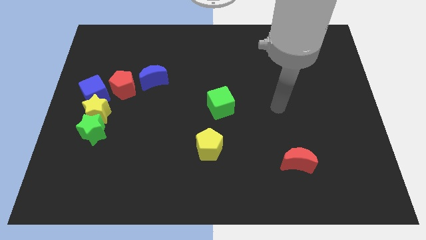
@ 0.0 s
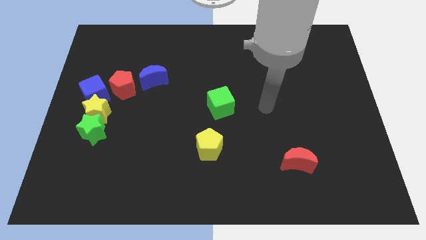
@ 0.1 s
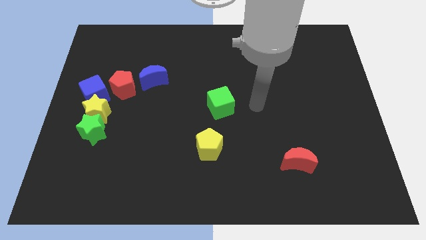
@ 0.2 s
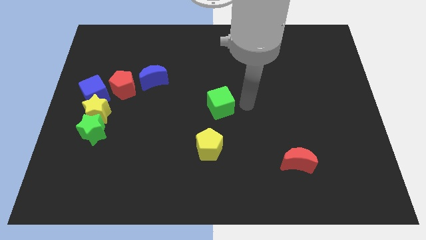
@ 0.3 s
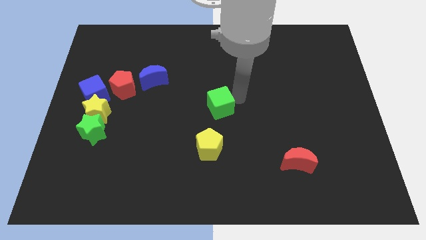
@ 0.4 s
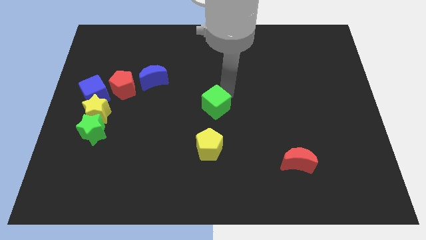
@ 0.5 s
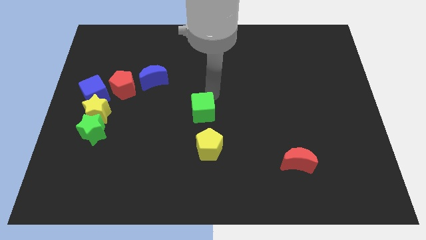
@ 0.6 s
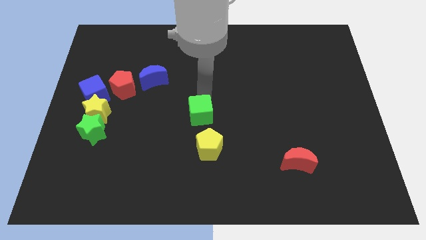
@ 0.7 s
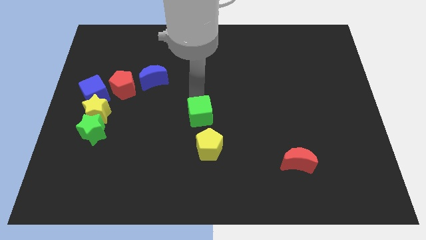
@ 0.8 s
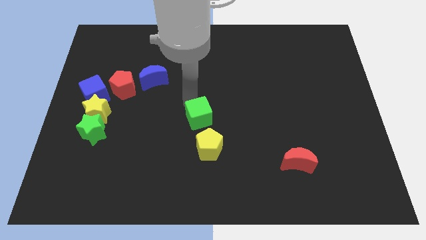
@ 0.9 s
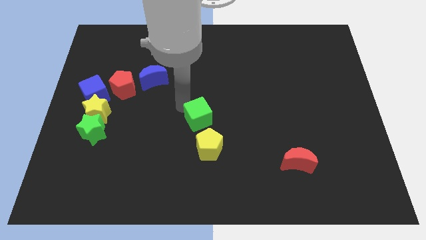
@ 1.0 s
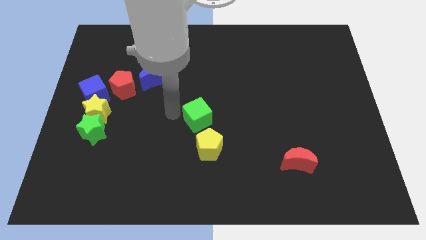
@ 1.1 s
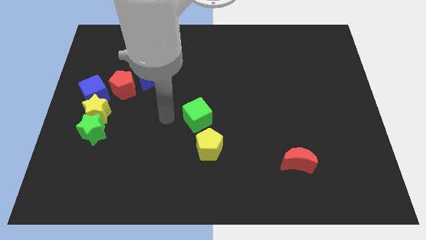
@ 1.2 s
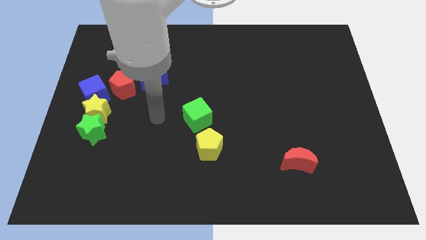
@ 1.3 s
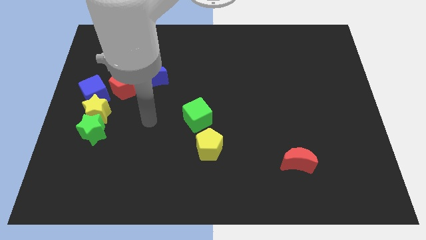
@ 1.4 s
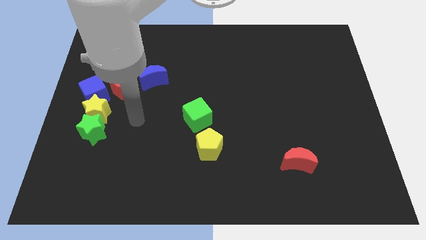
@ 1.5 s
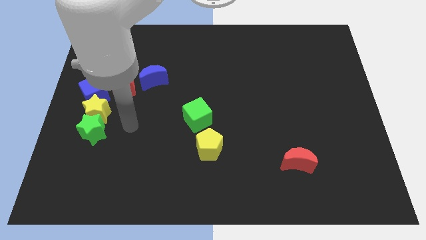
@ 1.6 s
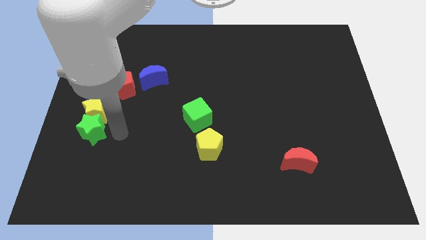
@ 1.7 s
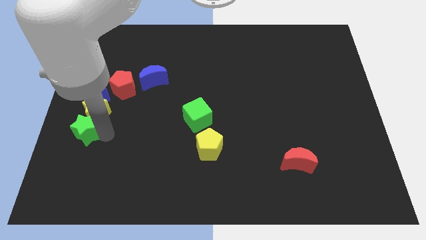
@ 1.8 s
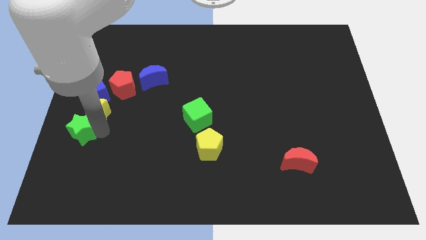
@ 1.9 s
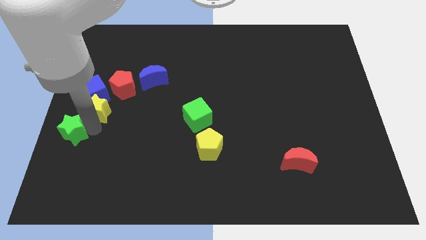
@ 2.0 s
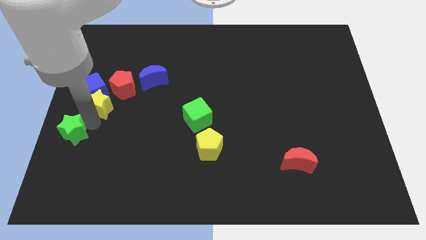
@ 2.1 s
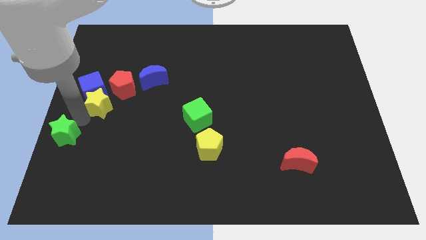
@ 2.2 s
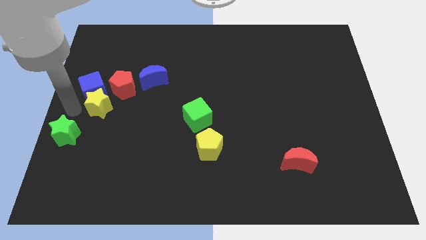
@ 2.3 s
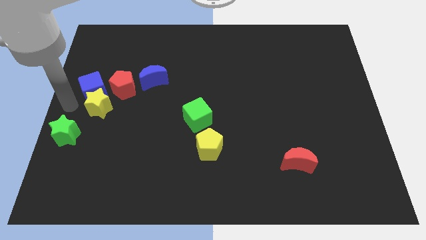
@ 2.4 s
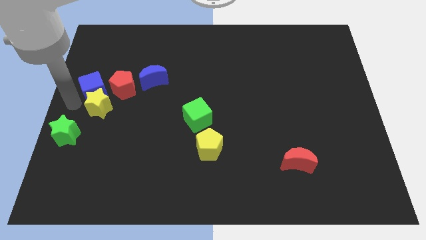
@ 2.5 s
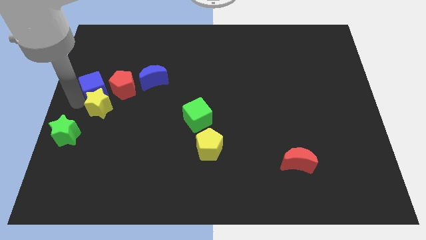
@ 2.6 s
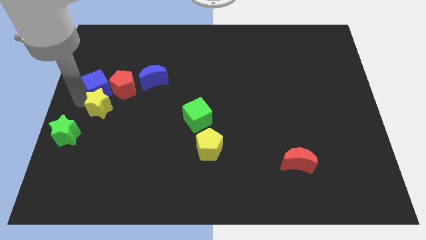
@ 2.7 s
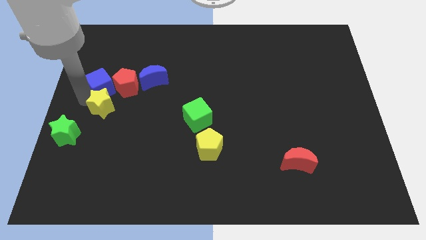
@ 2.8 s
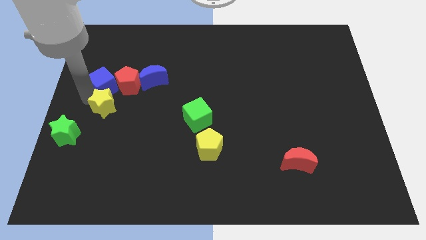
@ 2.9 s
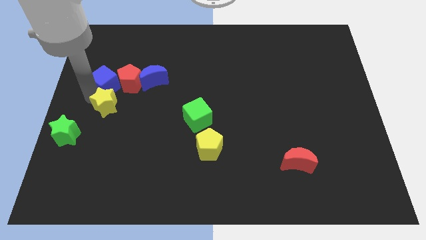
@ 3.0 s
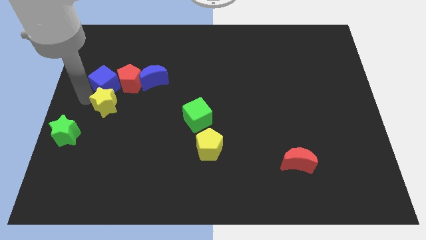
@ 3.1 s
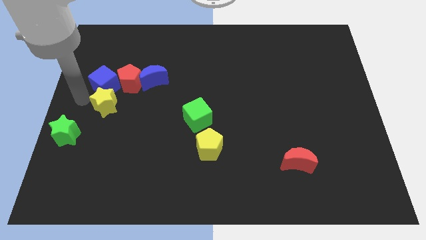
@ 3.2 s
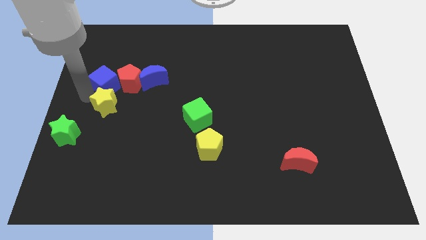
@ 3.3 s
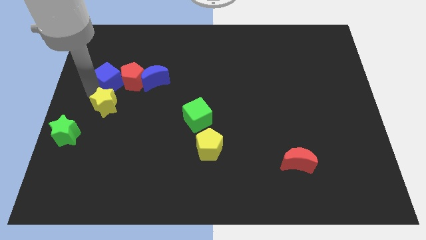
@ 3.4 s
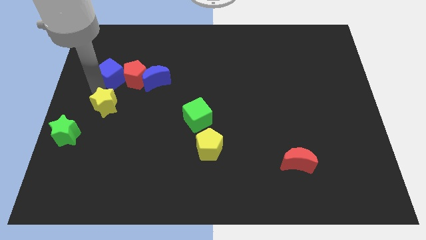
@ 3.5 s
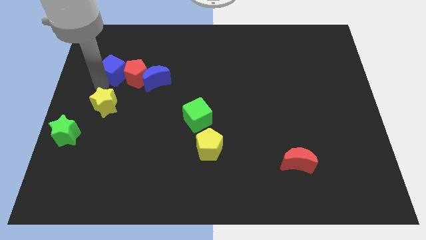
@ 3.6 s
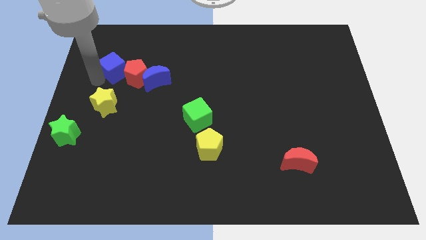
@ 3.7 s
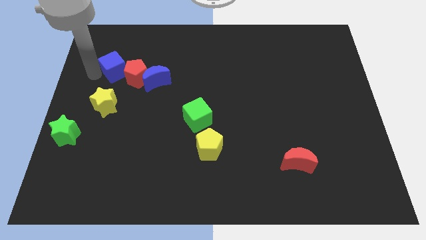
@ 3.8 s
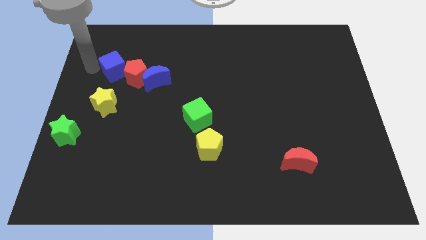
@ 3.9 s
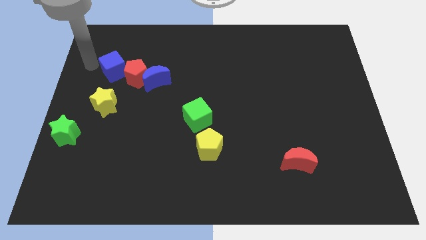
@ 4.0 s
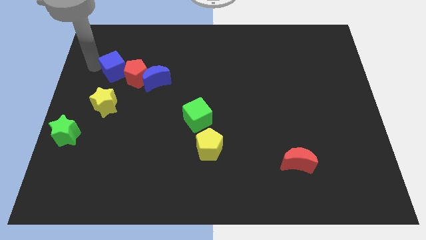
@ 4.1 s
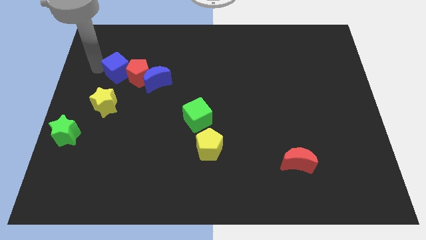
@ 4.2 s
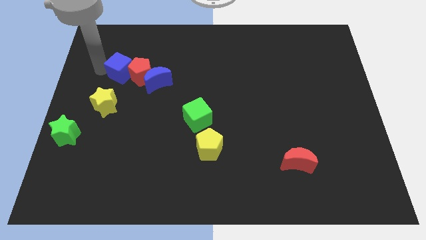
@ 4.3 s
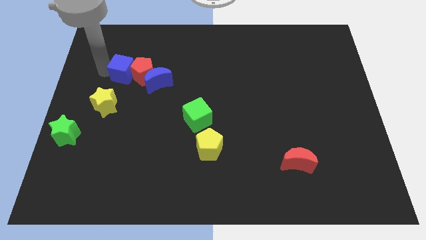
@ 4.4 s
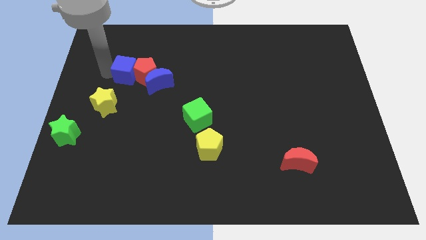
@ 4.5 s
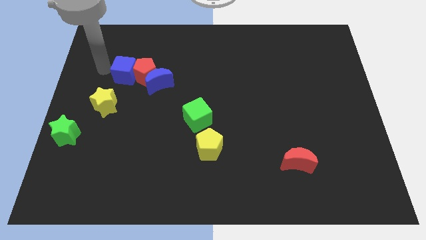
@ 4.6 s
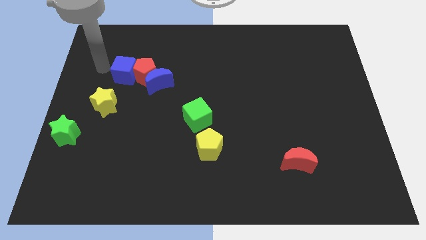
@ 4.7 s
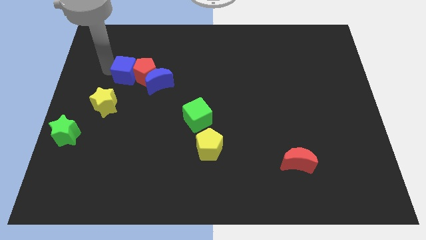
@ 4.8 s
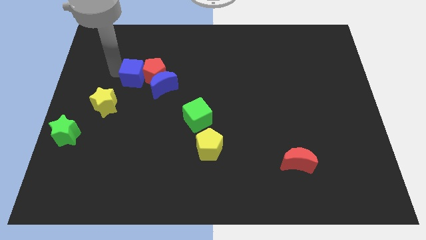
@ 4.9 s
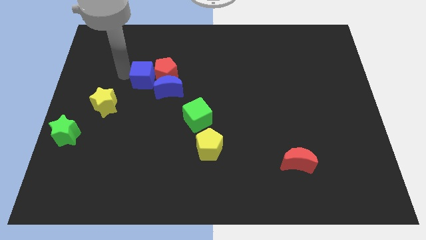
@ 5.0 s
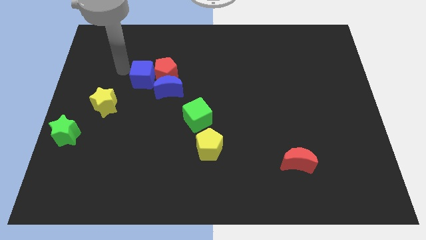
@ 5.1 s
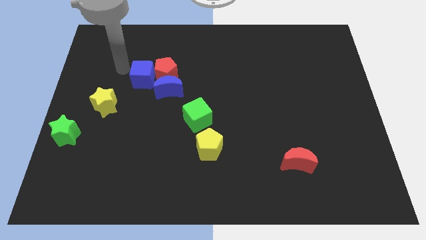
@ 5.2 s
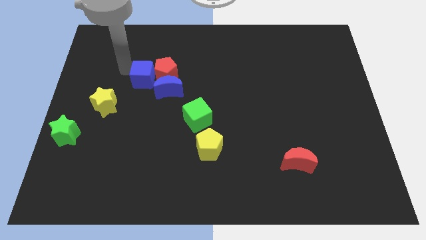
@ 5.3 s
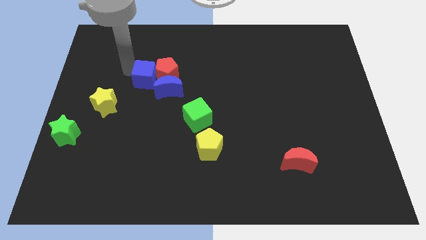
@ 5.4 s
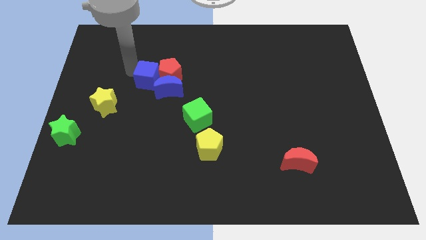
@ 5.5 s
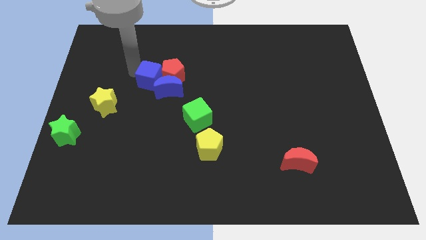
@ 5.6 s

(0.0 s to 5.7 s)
move the blue cube to the blue moon

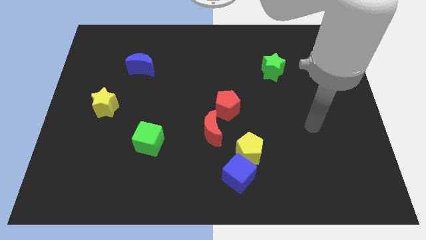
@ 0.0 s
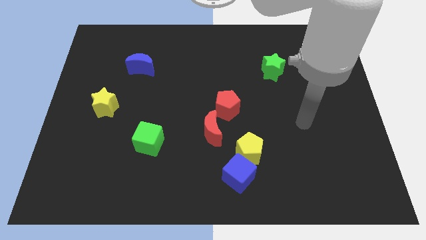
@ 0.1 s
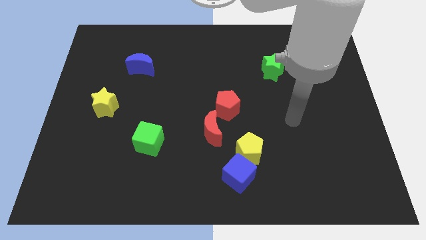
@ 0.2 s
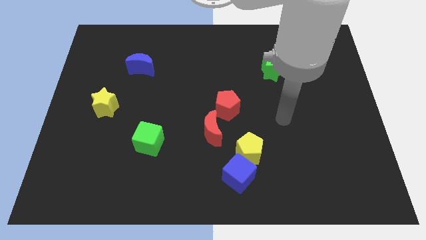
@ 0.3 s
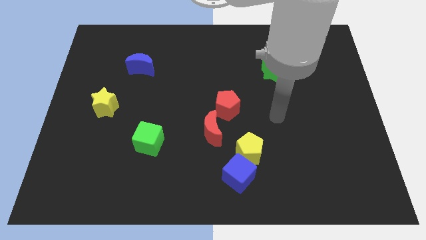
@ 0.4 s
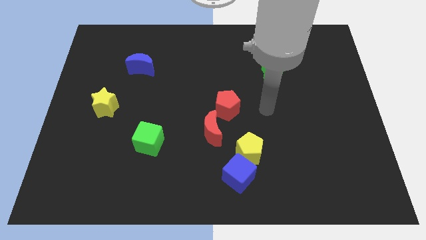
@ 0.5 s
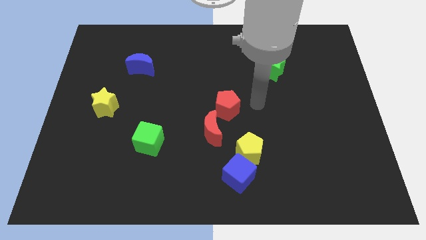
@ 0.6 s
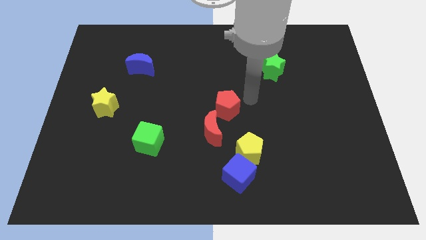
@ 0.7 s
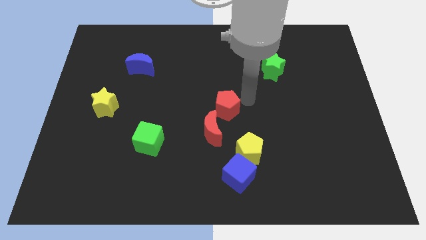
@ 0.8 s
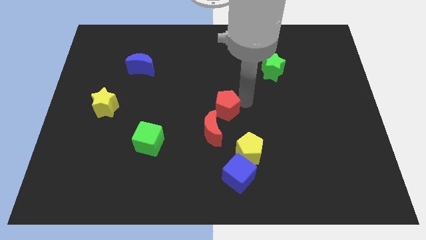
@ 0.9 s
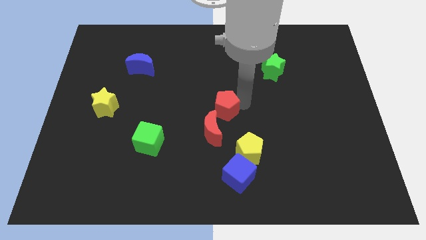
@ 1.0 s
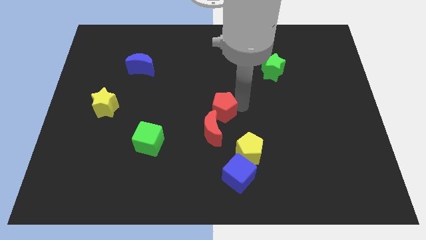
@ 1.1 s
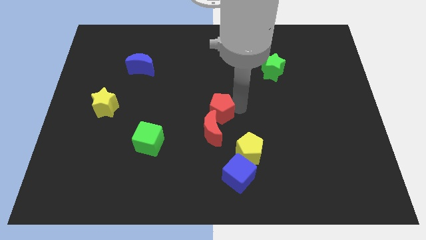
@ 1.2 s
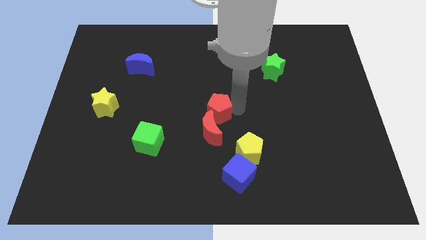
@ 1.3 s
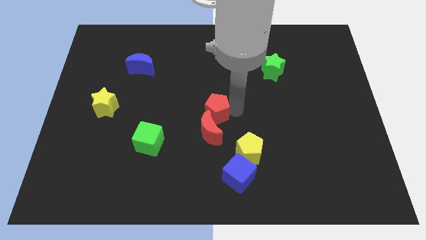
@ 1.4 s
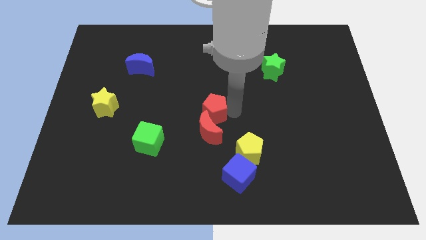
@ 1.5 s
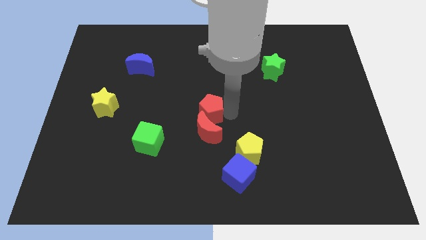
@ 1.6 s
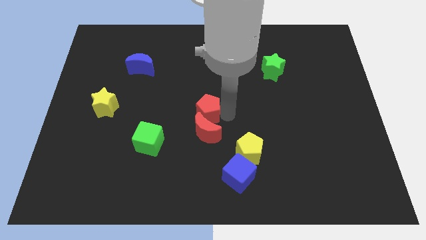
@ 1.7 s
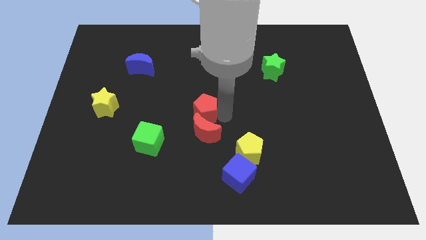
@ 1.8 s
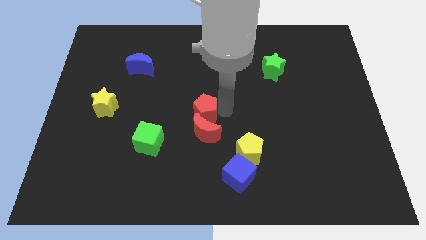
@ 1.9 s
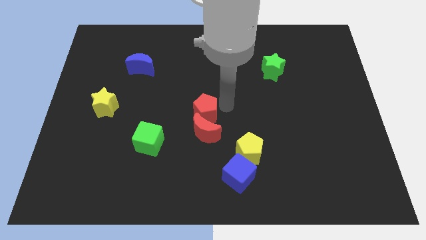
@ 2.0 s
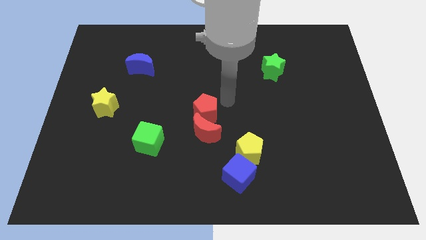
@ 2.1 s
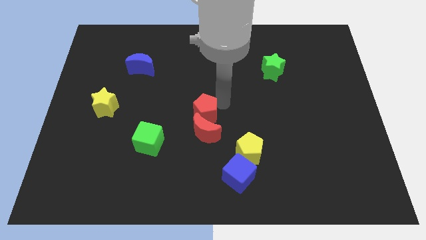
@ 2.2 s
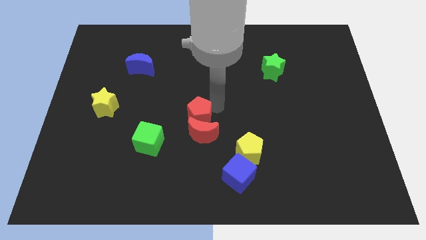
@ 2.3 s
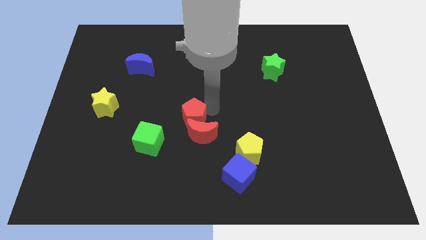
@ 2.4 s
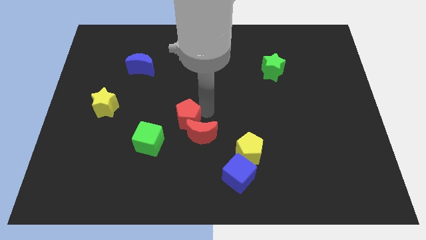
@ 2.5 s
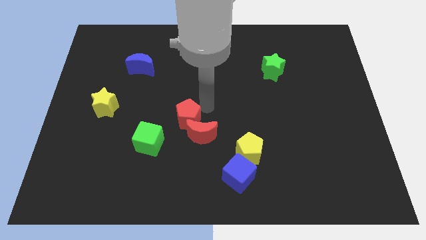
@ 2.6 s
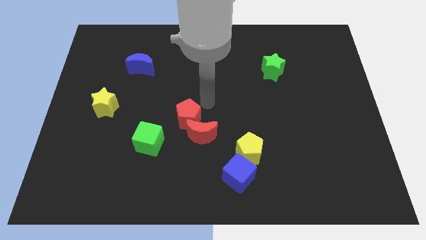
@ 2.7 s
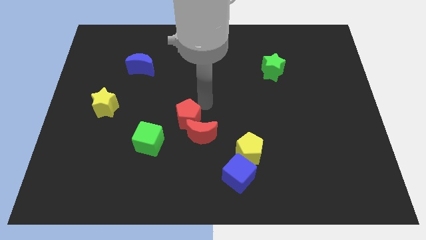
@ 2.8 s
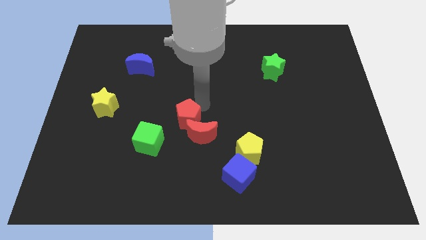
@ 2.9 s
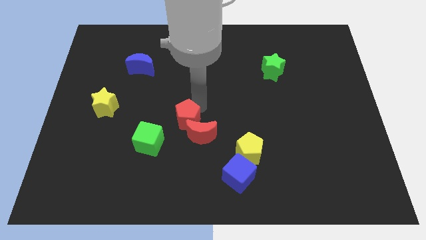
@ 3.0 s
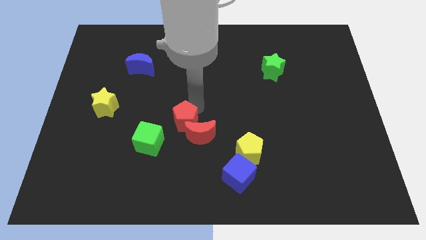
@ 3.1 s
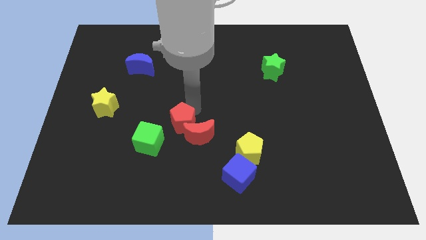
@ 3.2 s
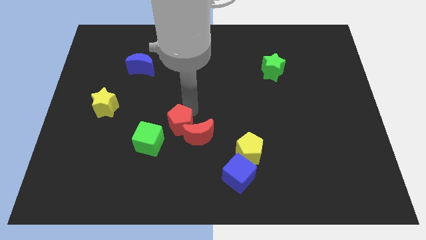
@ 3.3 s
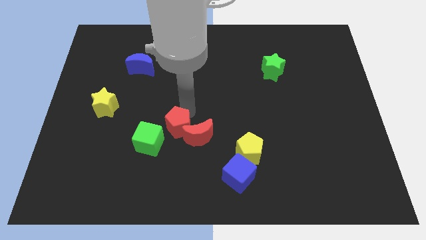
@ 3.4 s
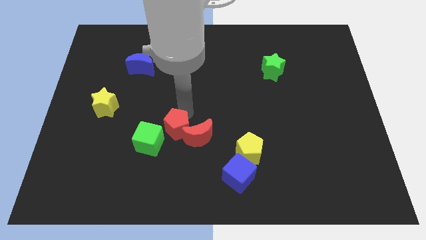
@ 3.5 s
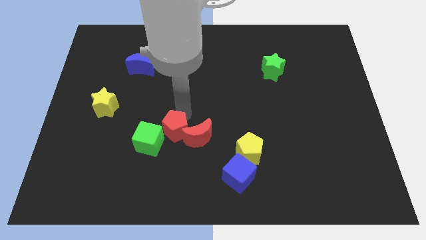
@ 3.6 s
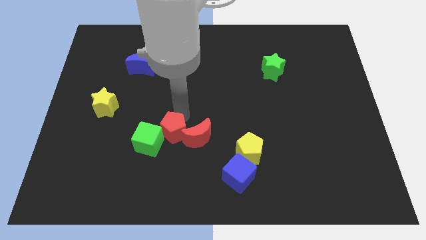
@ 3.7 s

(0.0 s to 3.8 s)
move the red pentagon next to the green cube
